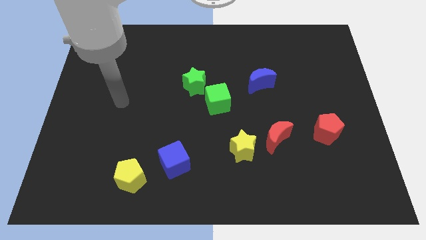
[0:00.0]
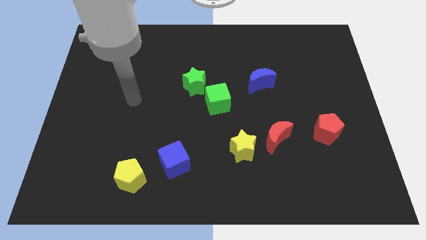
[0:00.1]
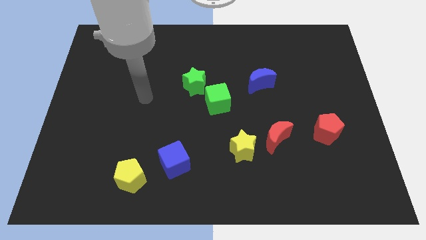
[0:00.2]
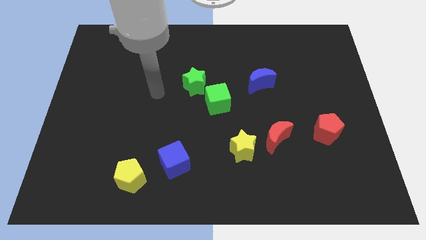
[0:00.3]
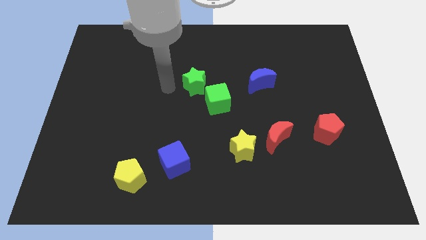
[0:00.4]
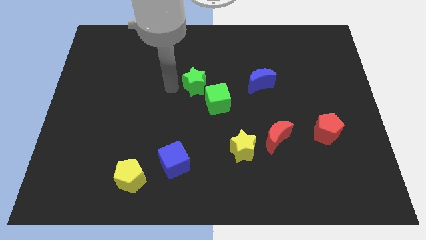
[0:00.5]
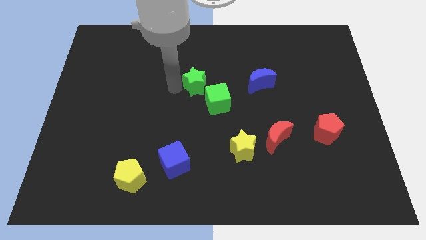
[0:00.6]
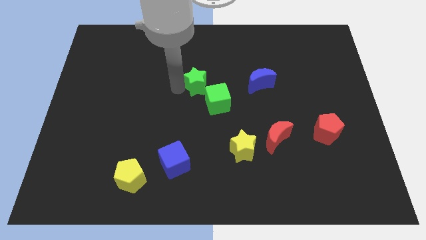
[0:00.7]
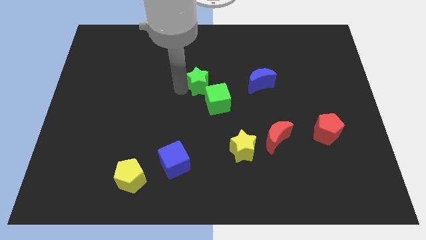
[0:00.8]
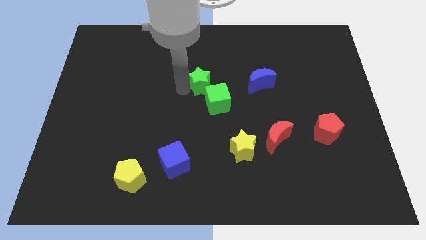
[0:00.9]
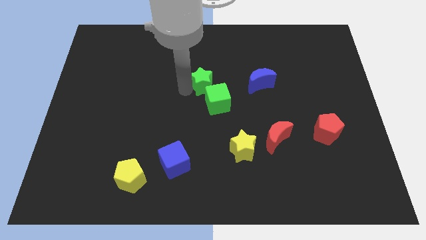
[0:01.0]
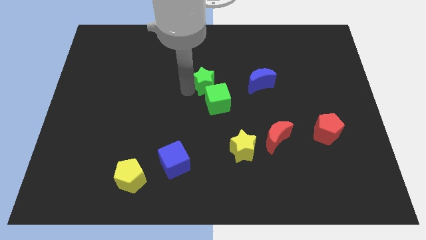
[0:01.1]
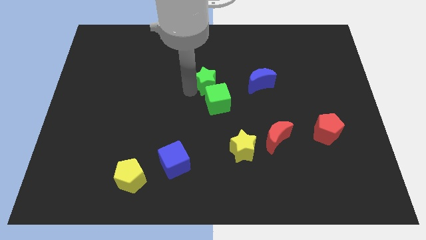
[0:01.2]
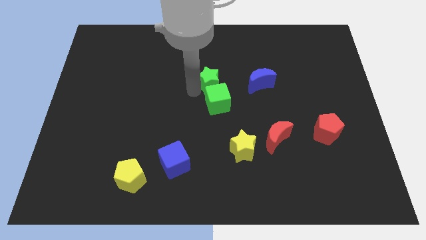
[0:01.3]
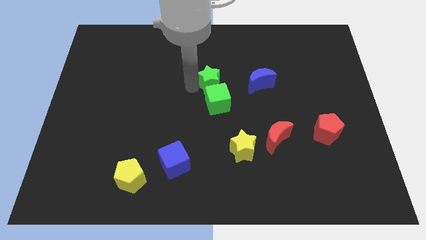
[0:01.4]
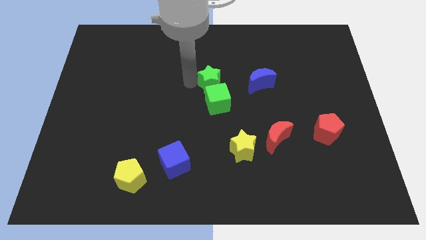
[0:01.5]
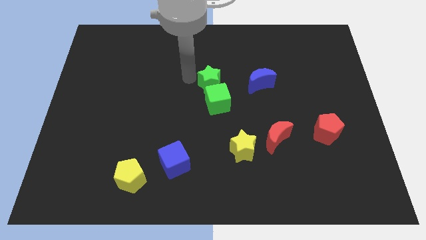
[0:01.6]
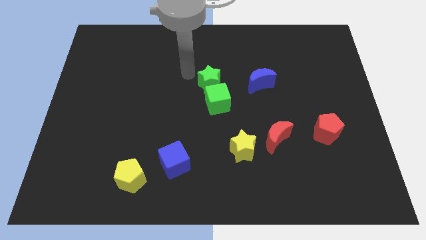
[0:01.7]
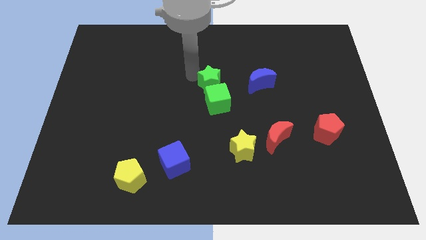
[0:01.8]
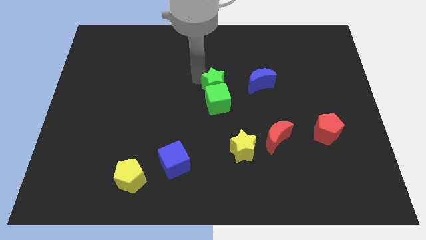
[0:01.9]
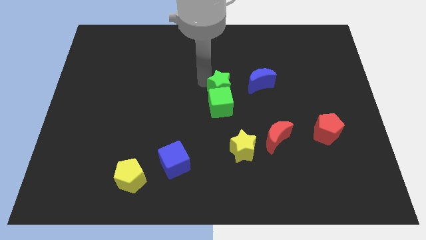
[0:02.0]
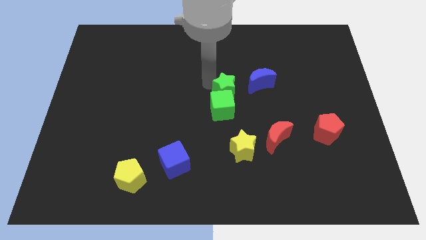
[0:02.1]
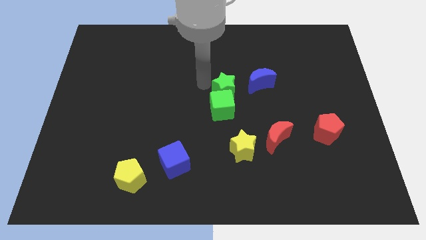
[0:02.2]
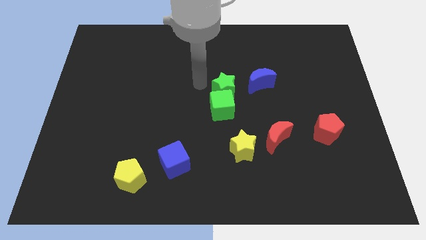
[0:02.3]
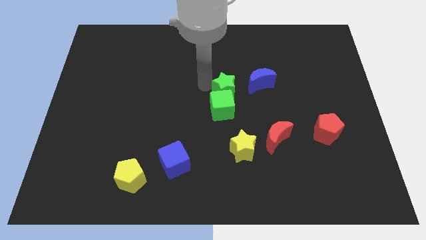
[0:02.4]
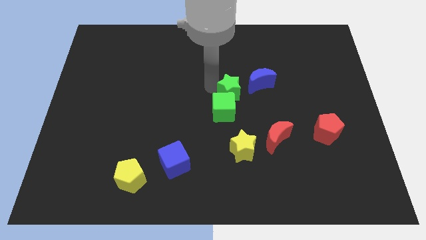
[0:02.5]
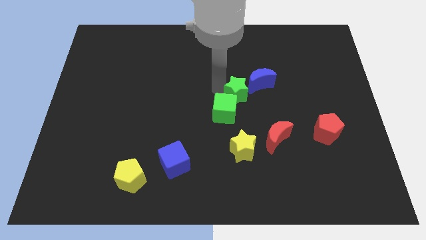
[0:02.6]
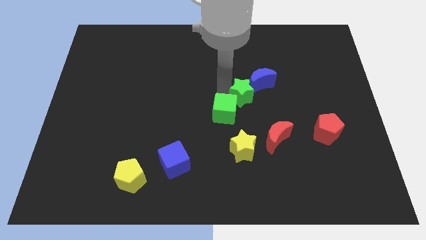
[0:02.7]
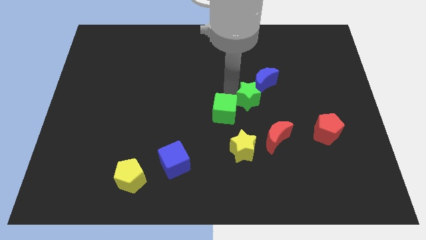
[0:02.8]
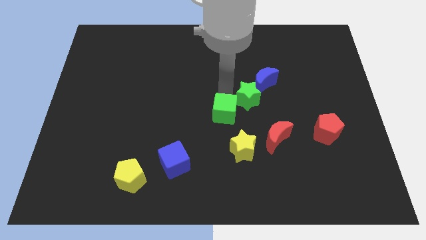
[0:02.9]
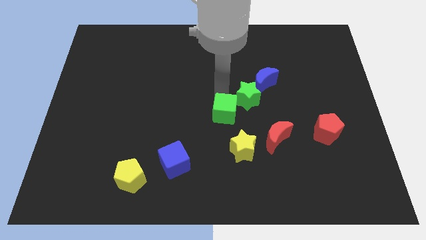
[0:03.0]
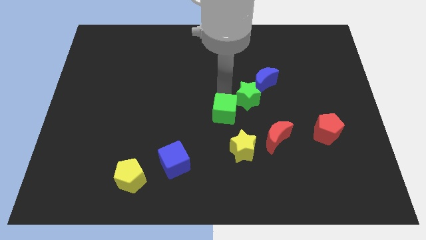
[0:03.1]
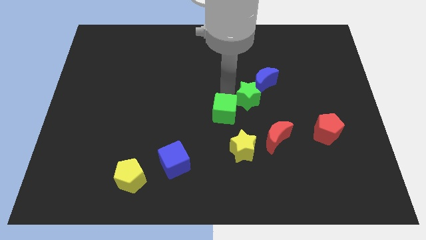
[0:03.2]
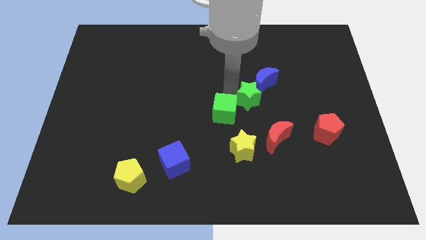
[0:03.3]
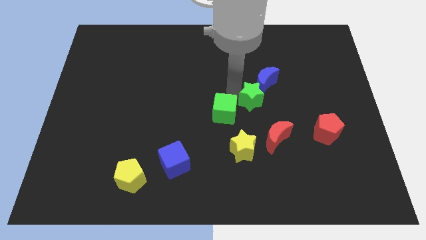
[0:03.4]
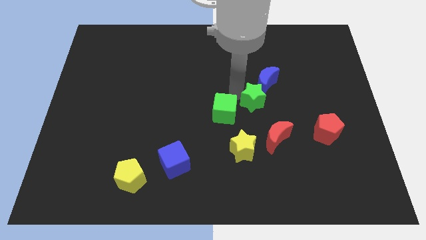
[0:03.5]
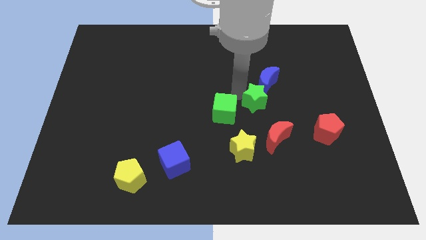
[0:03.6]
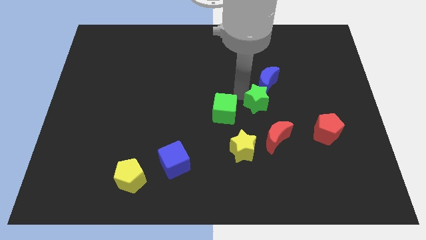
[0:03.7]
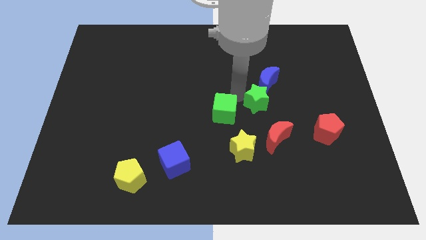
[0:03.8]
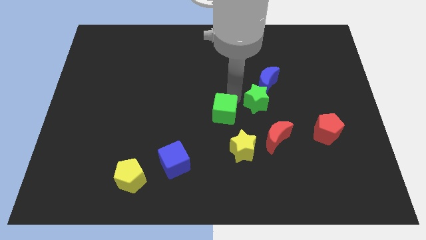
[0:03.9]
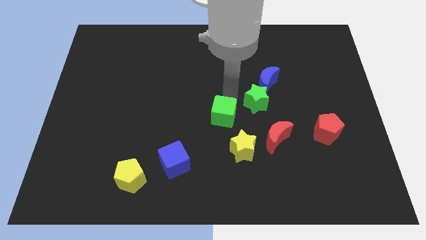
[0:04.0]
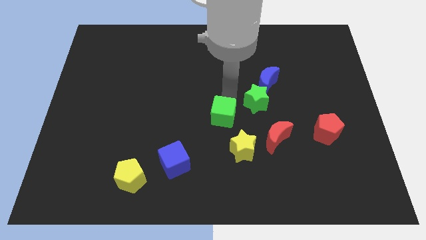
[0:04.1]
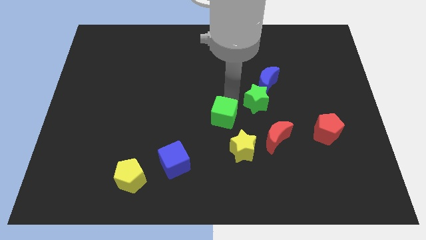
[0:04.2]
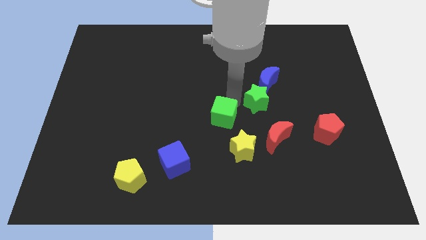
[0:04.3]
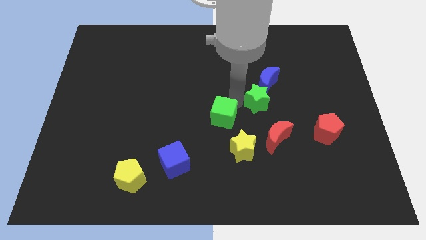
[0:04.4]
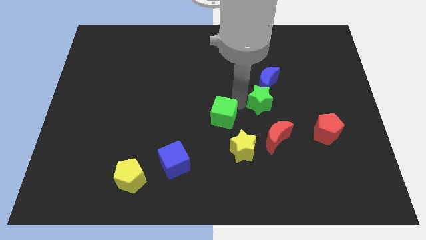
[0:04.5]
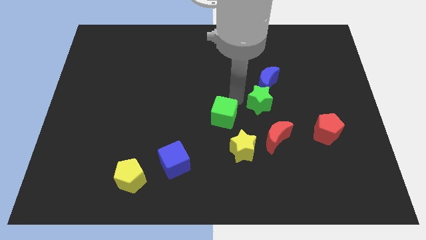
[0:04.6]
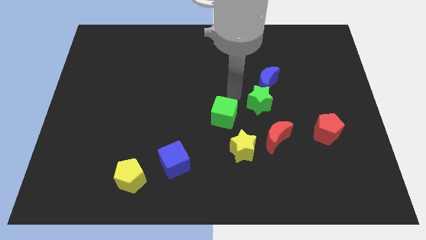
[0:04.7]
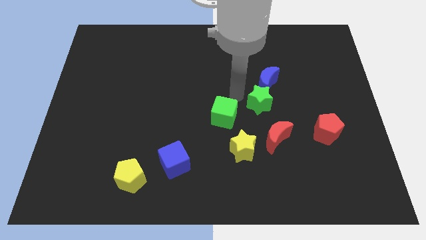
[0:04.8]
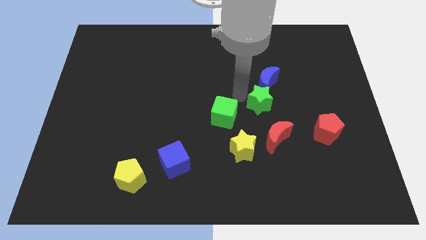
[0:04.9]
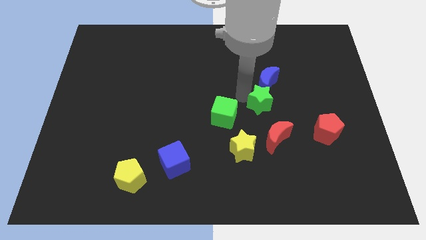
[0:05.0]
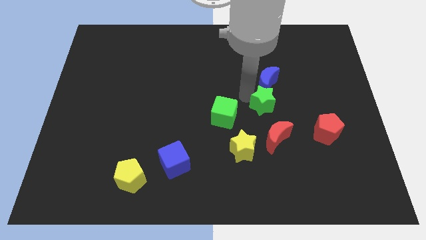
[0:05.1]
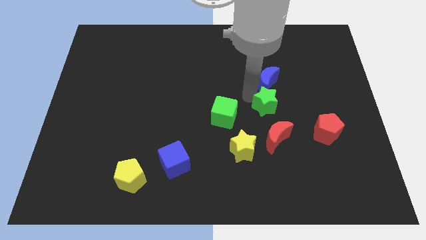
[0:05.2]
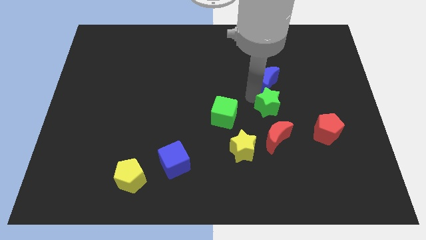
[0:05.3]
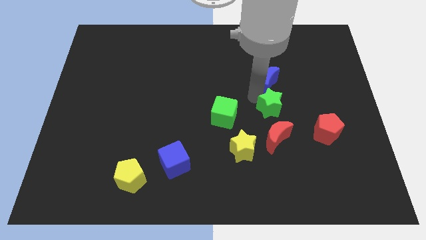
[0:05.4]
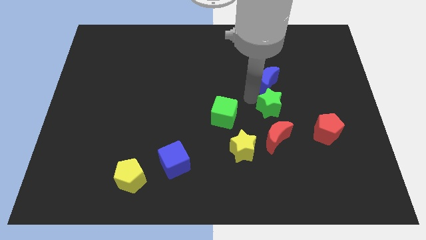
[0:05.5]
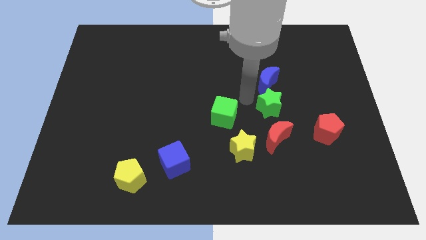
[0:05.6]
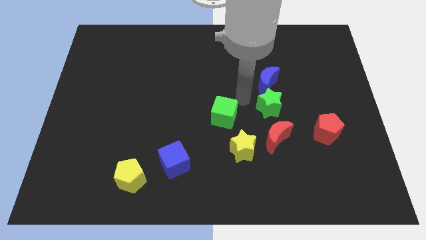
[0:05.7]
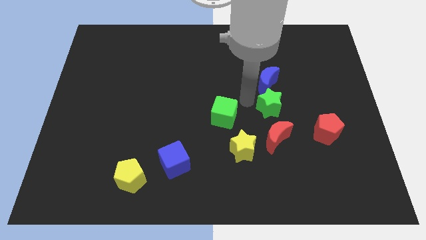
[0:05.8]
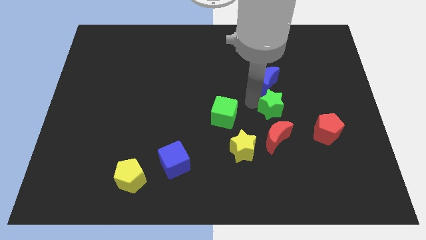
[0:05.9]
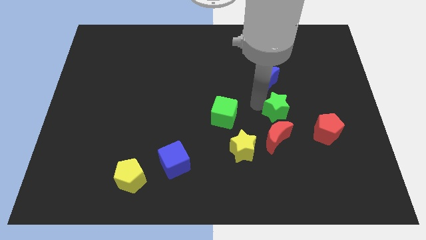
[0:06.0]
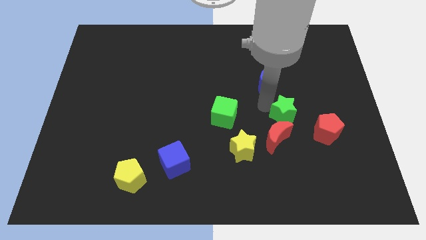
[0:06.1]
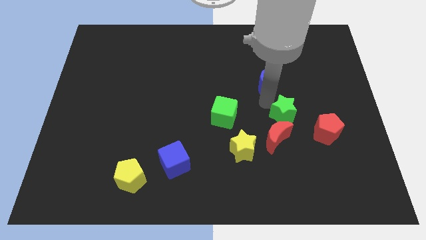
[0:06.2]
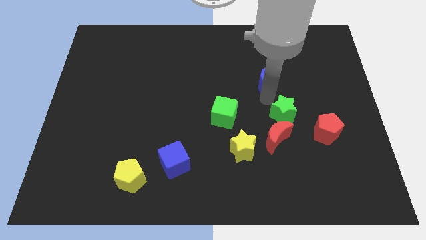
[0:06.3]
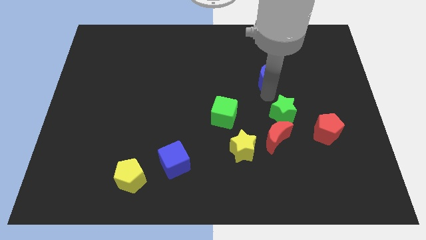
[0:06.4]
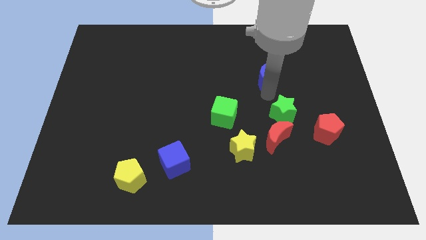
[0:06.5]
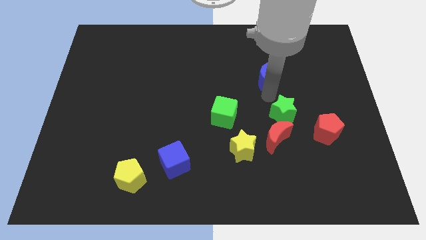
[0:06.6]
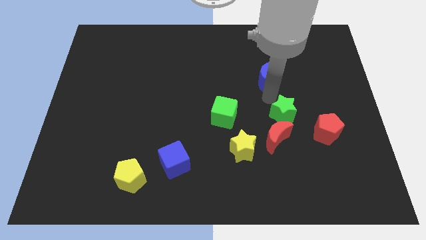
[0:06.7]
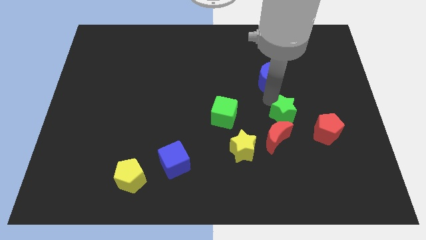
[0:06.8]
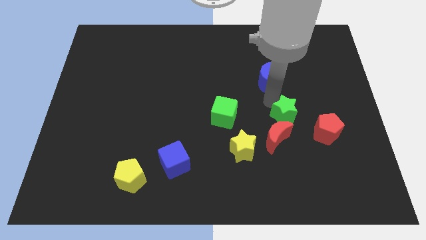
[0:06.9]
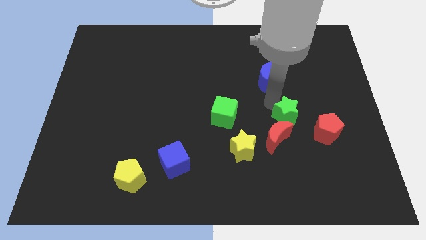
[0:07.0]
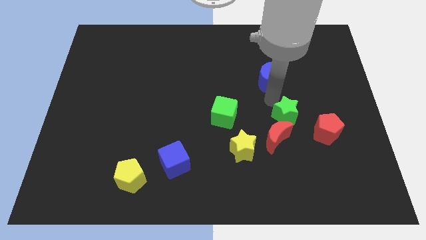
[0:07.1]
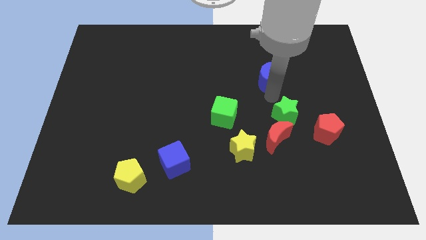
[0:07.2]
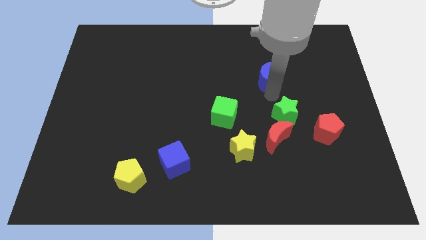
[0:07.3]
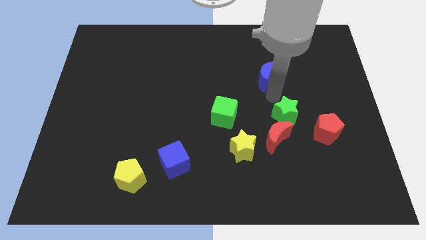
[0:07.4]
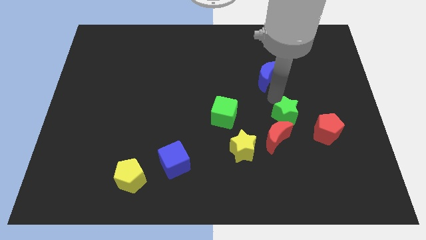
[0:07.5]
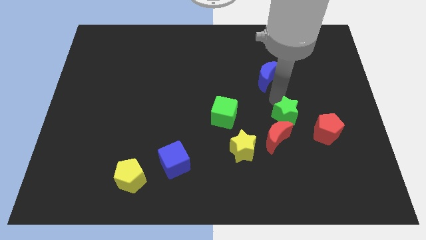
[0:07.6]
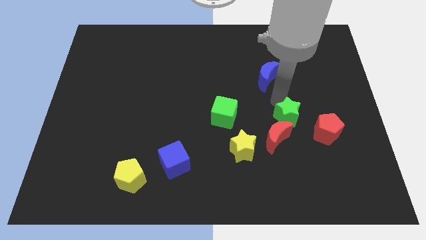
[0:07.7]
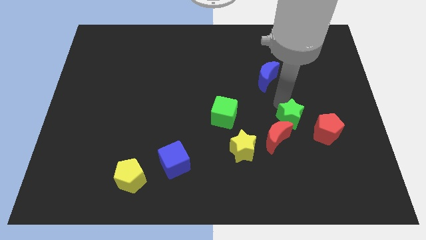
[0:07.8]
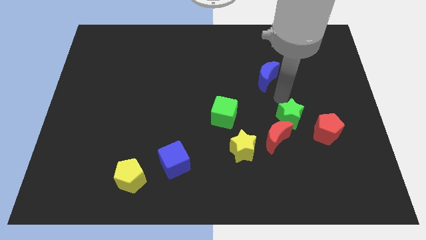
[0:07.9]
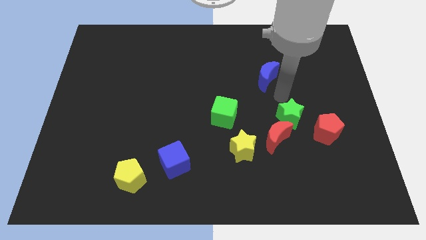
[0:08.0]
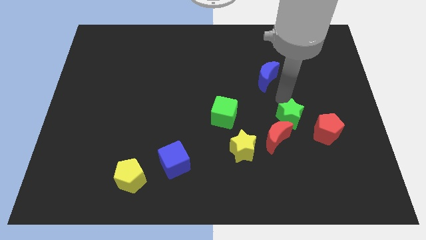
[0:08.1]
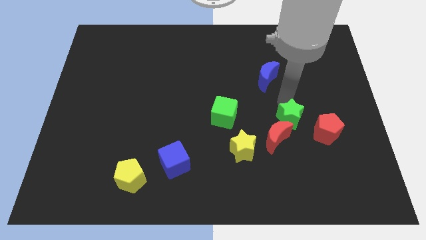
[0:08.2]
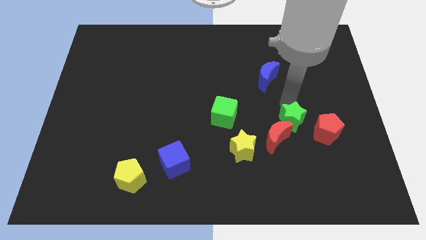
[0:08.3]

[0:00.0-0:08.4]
push the green star diagonally downwards and to the right
